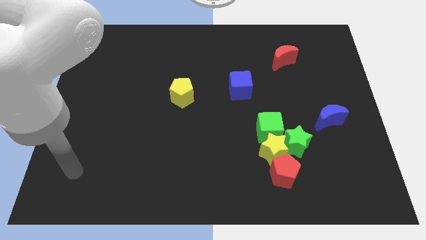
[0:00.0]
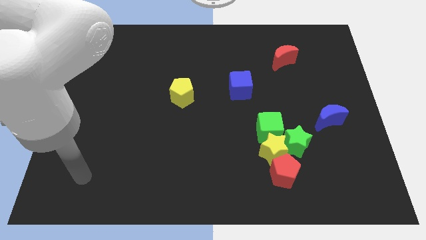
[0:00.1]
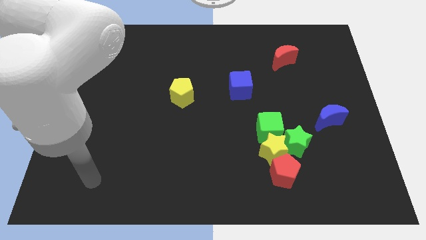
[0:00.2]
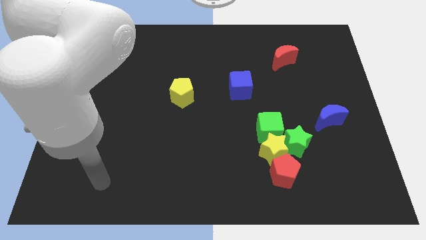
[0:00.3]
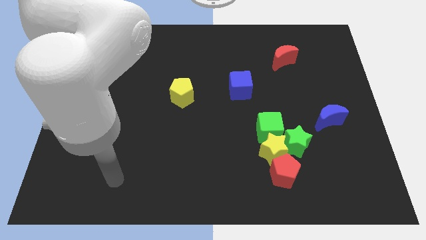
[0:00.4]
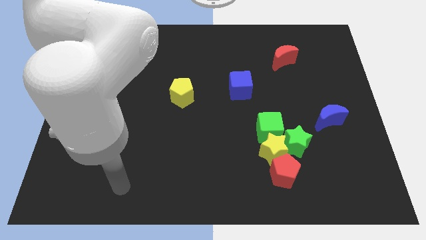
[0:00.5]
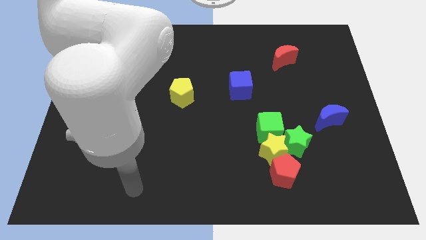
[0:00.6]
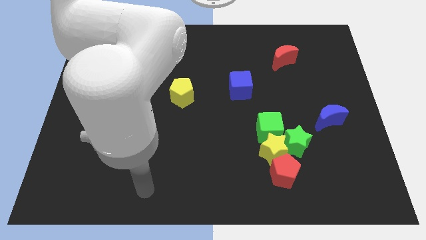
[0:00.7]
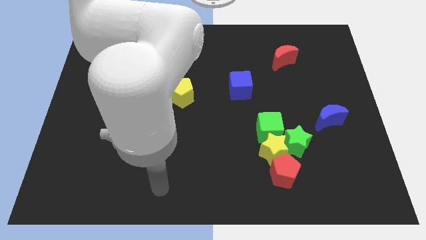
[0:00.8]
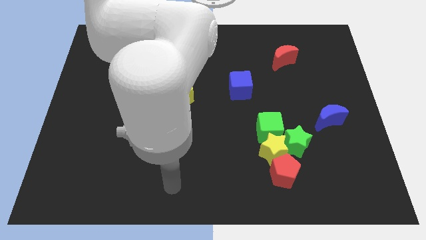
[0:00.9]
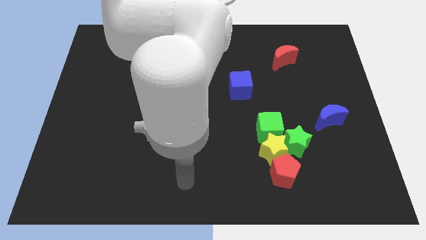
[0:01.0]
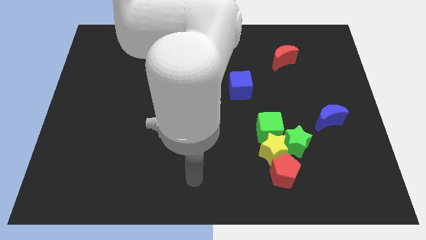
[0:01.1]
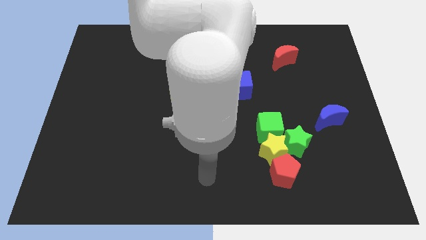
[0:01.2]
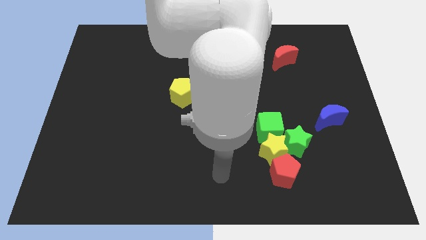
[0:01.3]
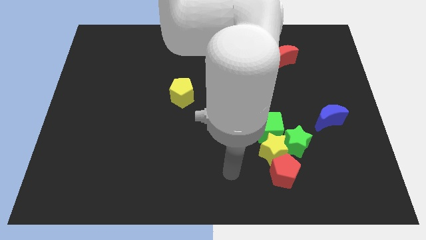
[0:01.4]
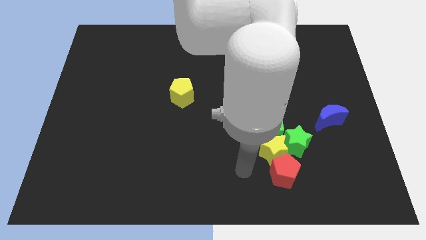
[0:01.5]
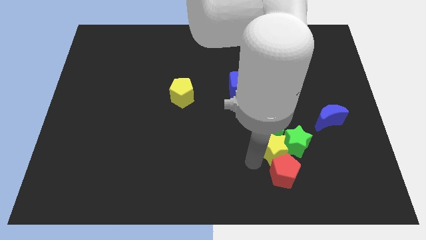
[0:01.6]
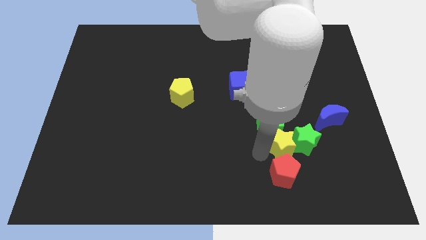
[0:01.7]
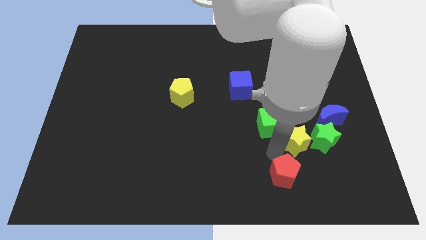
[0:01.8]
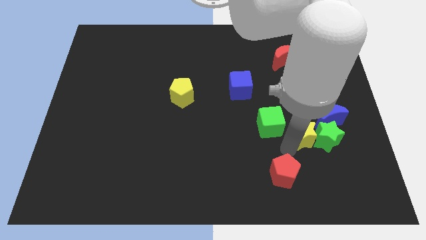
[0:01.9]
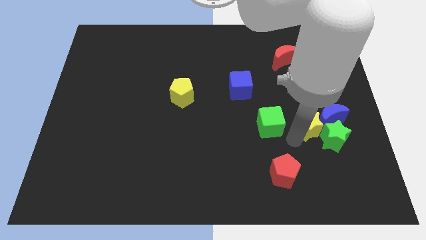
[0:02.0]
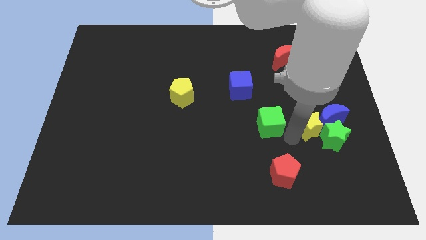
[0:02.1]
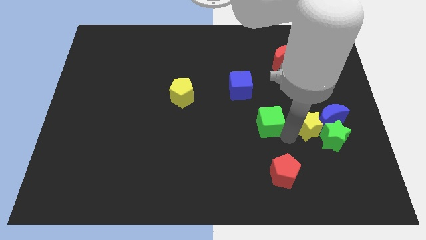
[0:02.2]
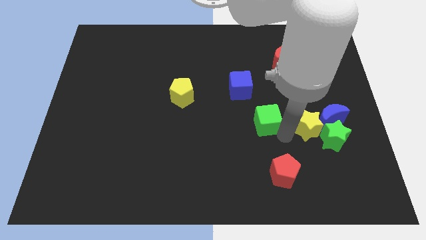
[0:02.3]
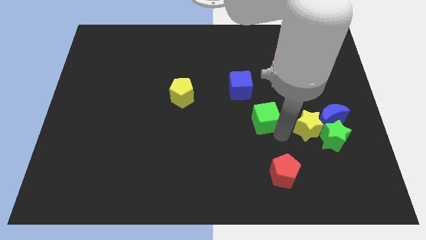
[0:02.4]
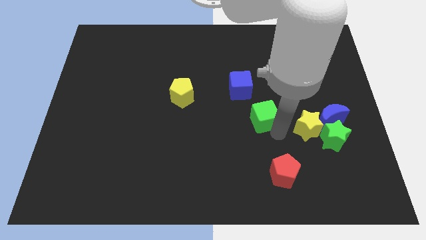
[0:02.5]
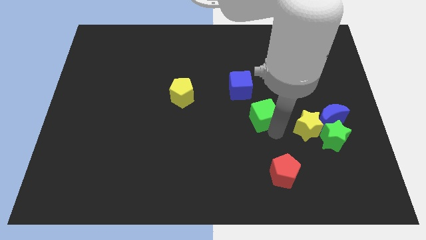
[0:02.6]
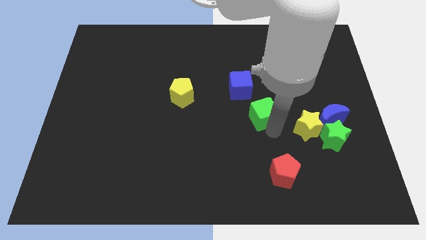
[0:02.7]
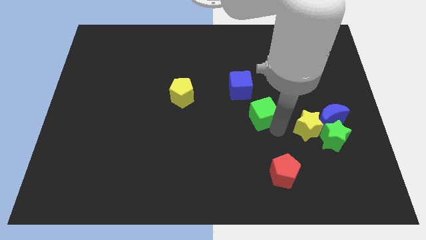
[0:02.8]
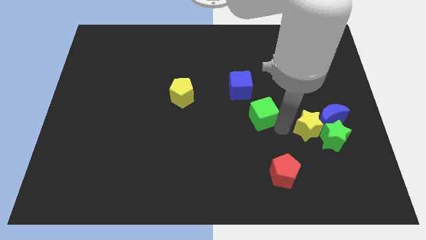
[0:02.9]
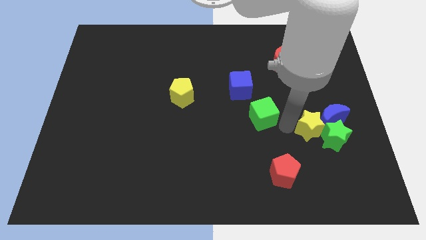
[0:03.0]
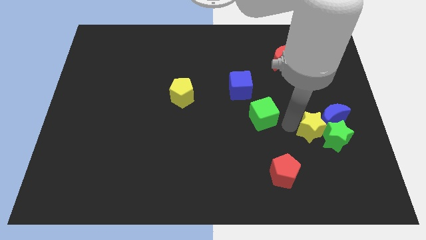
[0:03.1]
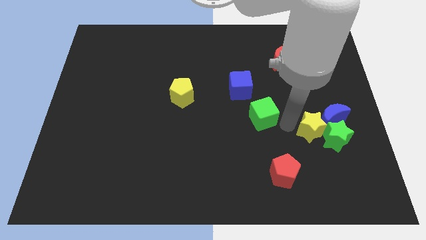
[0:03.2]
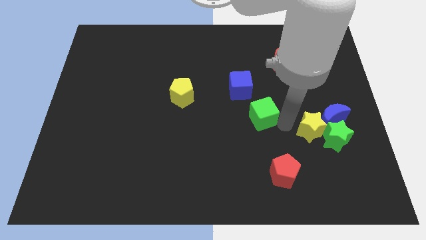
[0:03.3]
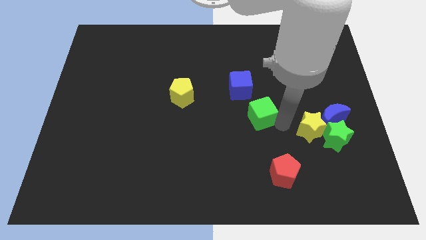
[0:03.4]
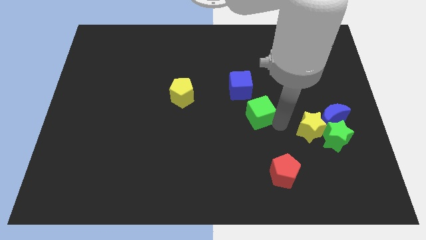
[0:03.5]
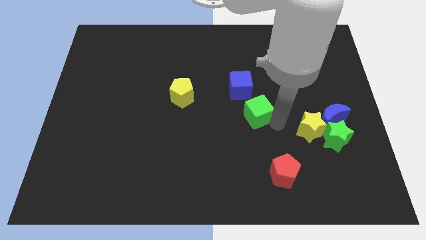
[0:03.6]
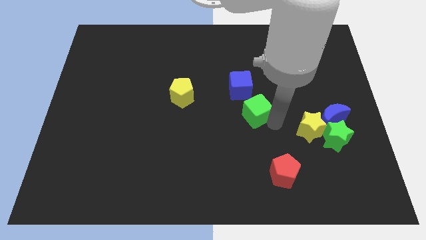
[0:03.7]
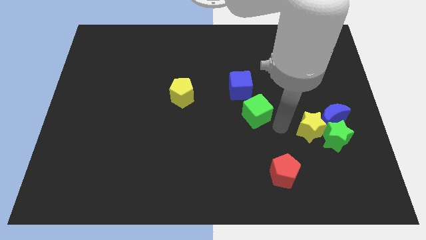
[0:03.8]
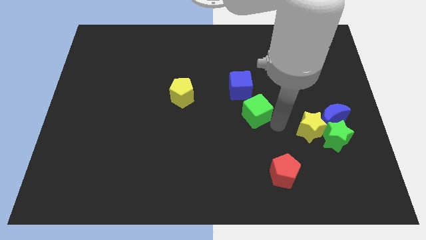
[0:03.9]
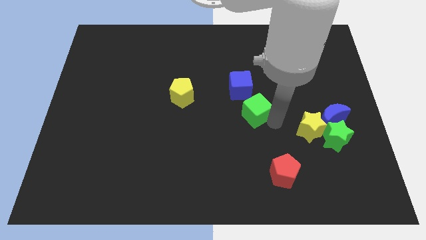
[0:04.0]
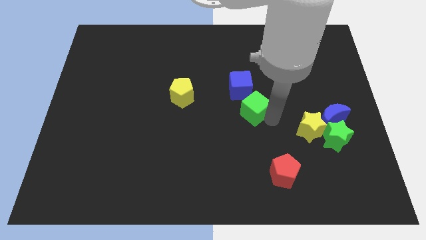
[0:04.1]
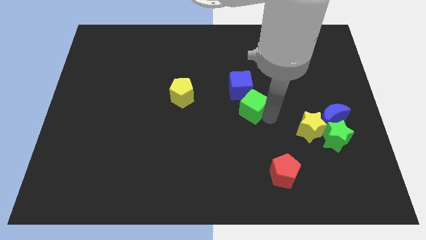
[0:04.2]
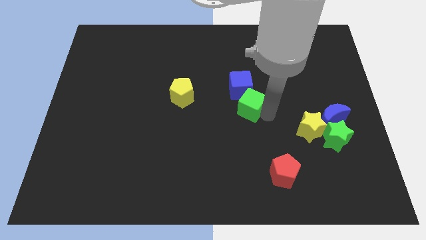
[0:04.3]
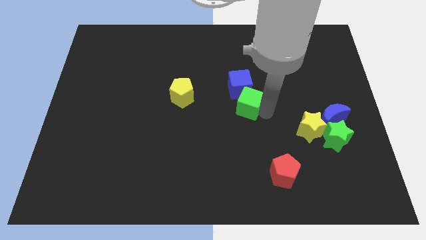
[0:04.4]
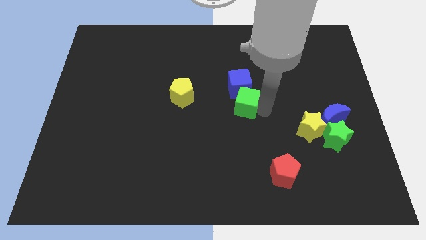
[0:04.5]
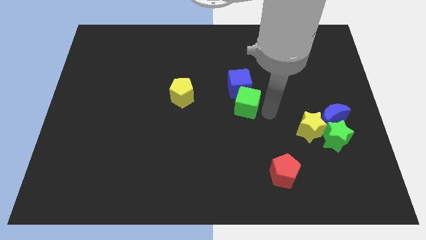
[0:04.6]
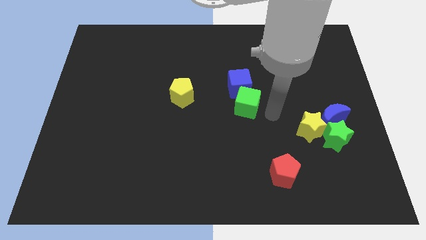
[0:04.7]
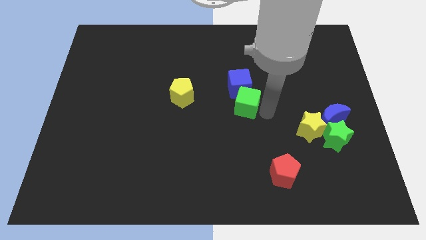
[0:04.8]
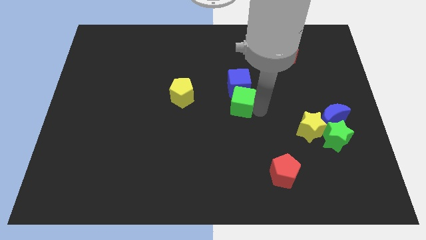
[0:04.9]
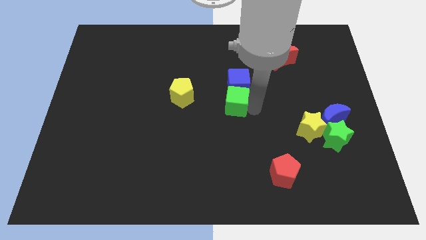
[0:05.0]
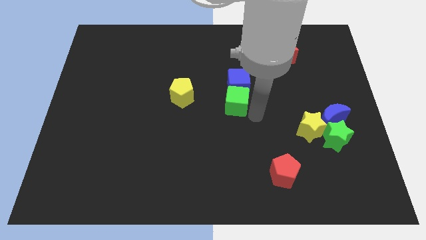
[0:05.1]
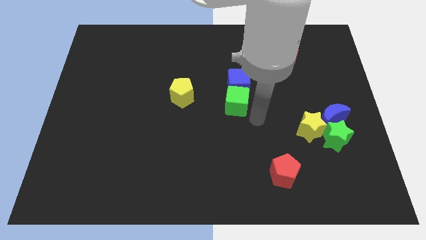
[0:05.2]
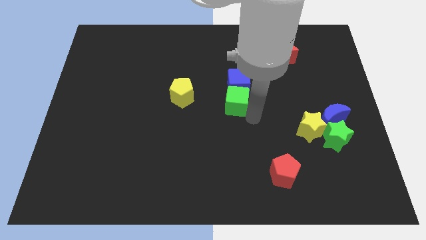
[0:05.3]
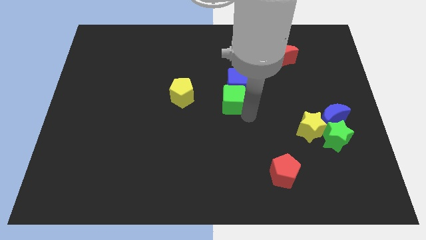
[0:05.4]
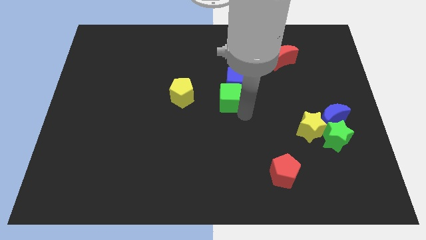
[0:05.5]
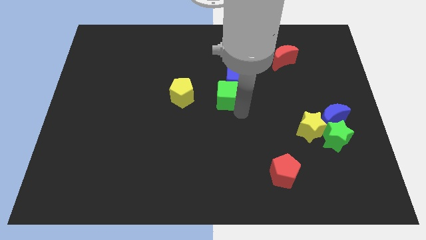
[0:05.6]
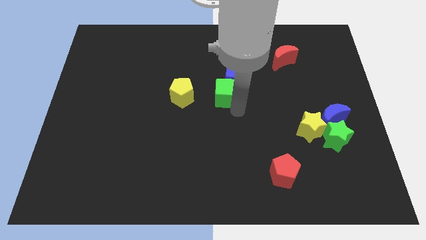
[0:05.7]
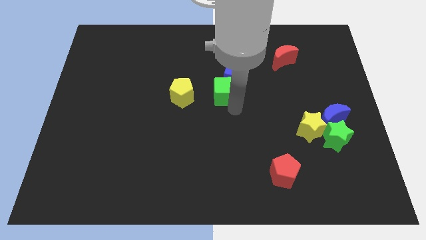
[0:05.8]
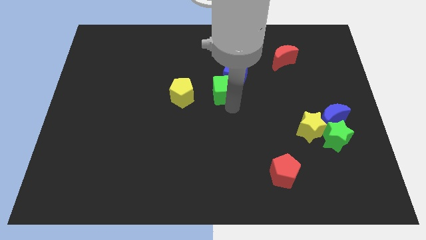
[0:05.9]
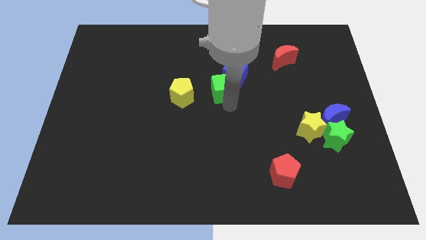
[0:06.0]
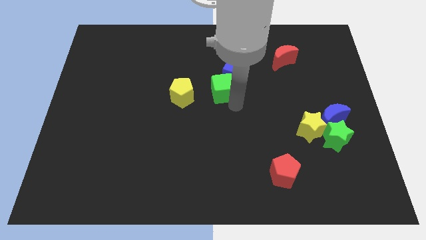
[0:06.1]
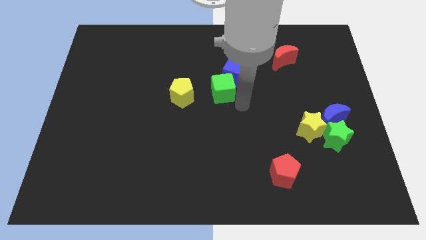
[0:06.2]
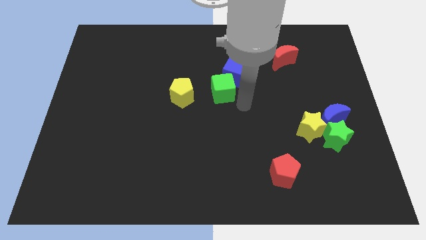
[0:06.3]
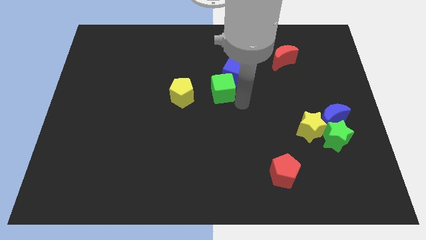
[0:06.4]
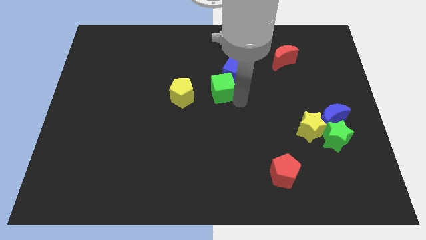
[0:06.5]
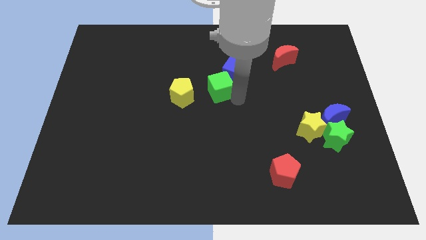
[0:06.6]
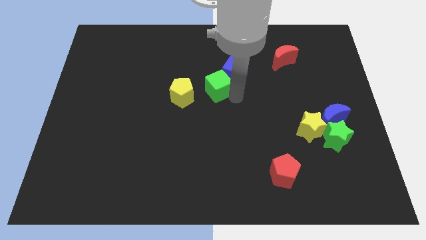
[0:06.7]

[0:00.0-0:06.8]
put the green cube to the top right side of the yellow pentagon
